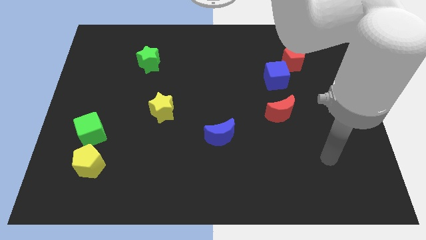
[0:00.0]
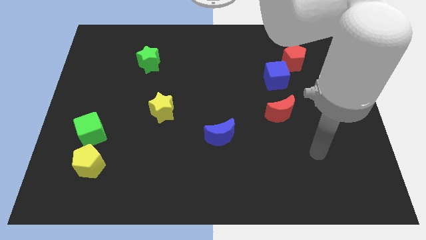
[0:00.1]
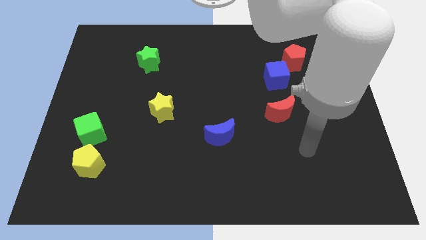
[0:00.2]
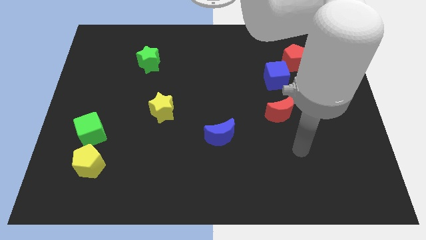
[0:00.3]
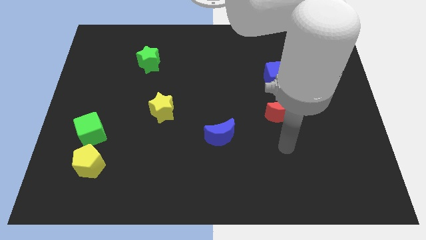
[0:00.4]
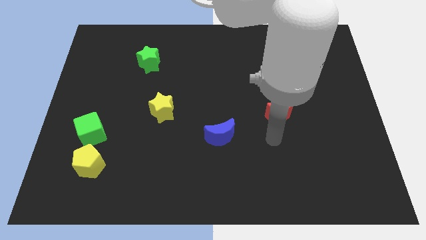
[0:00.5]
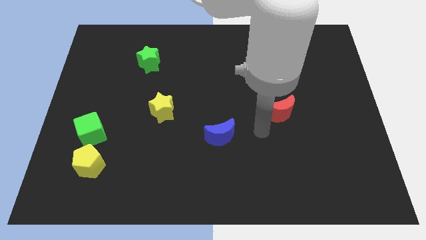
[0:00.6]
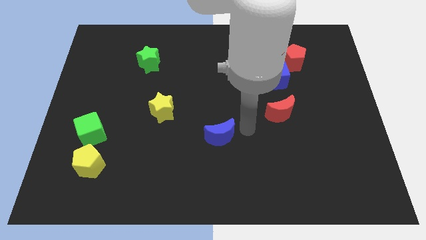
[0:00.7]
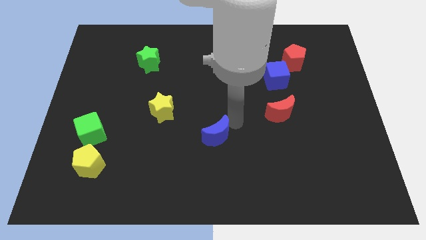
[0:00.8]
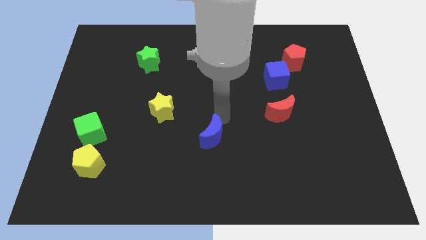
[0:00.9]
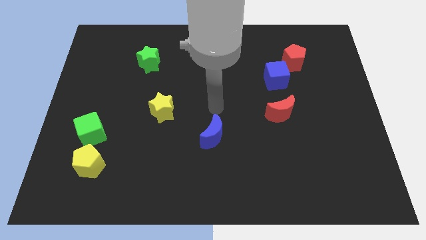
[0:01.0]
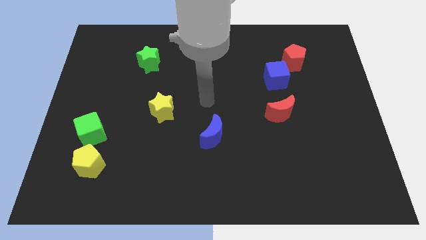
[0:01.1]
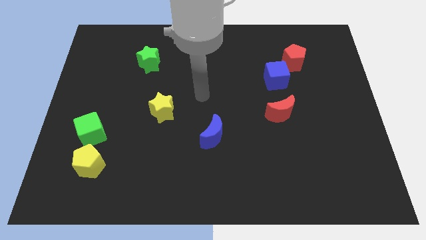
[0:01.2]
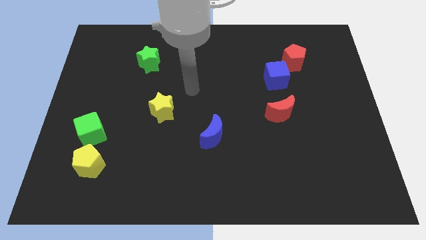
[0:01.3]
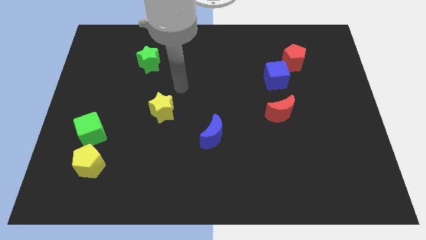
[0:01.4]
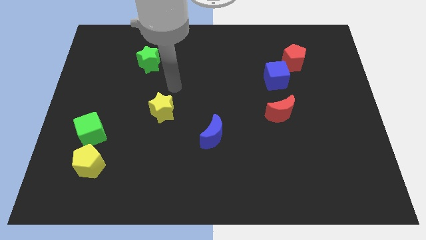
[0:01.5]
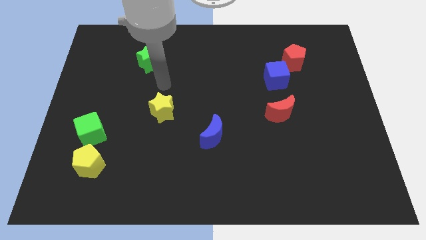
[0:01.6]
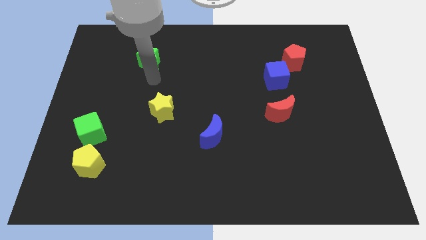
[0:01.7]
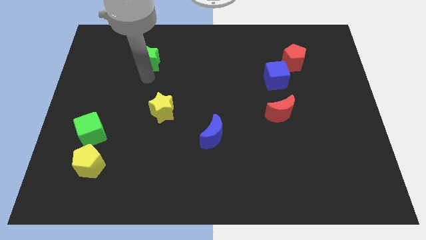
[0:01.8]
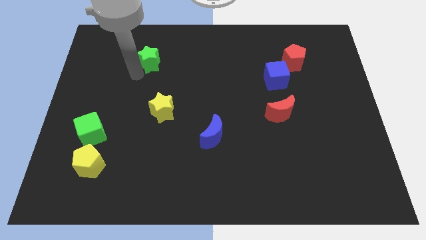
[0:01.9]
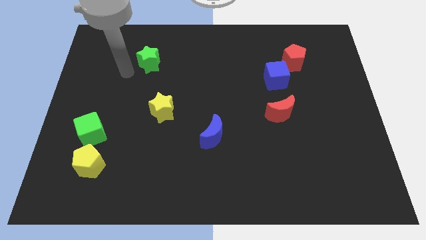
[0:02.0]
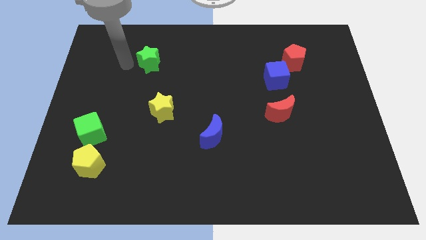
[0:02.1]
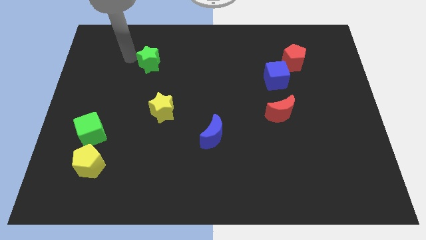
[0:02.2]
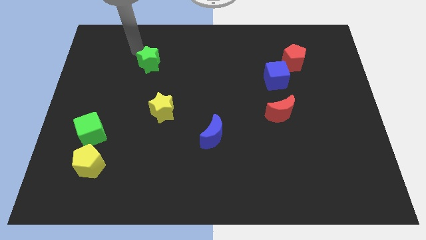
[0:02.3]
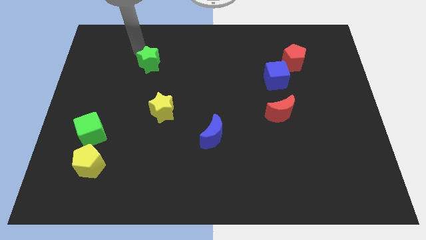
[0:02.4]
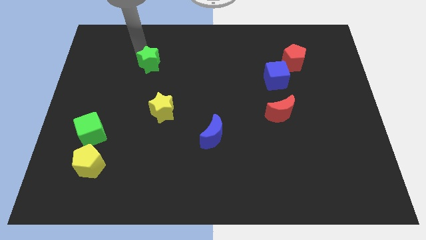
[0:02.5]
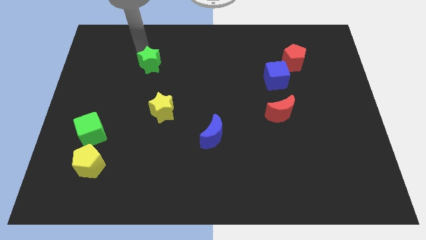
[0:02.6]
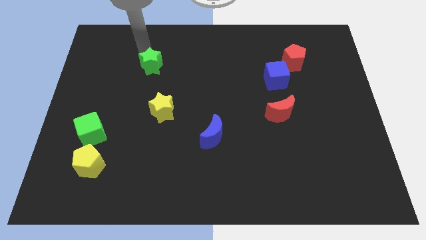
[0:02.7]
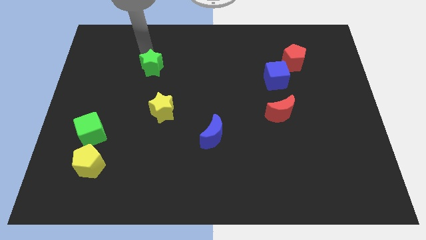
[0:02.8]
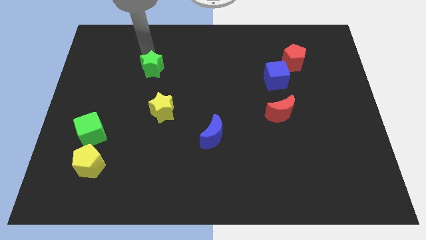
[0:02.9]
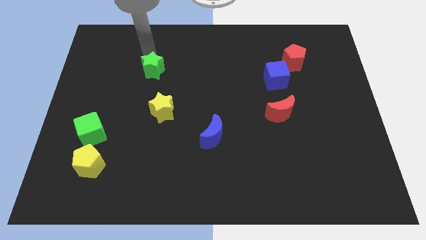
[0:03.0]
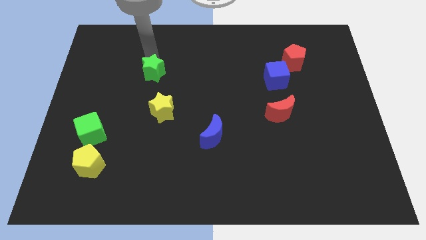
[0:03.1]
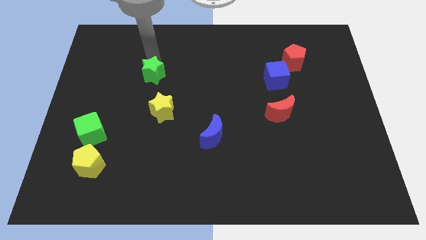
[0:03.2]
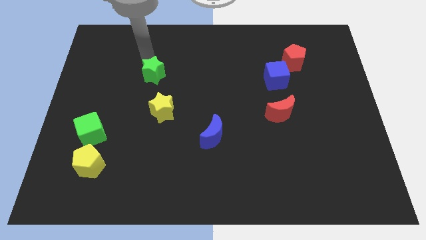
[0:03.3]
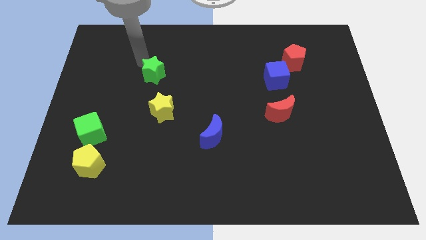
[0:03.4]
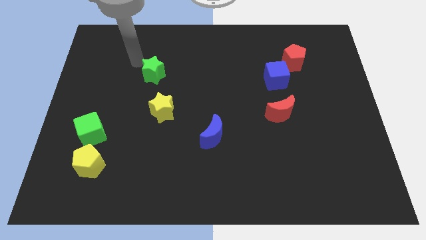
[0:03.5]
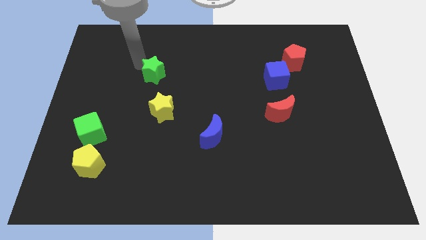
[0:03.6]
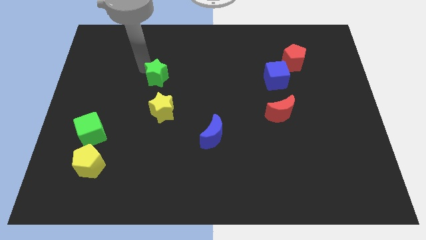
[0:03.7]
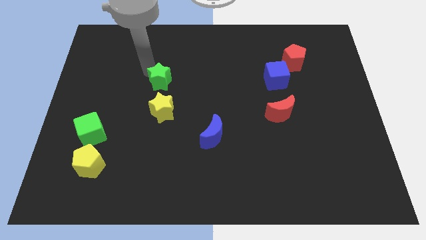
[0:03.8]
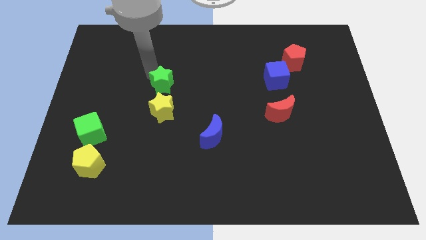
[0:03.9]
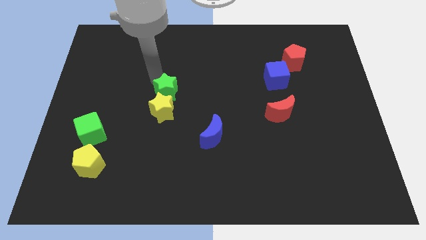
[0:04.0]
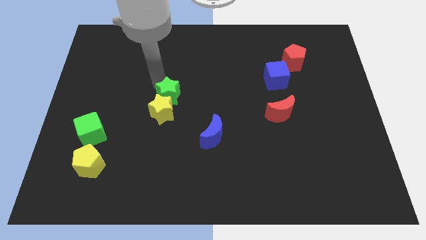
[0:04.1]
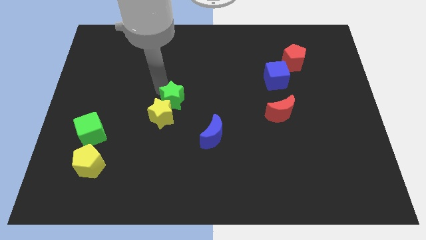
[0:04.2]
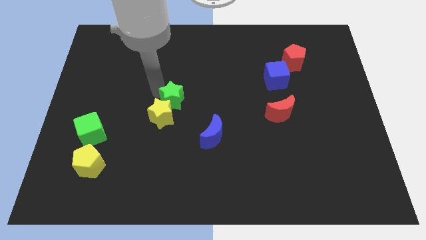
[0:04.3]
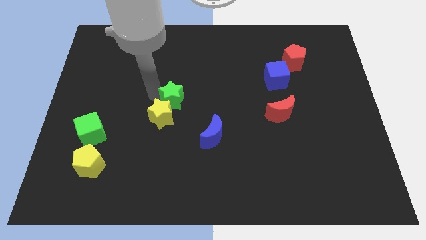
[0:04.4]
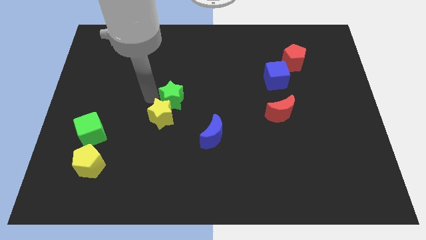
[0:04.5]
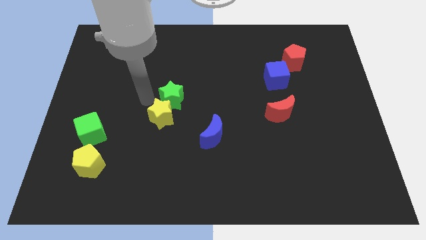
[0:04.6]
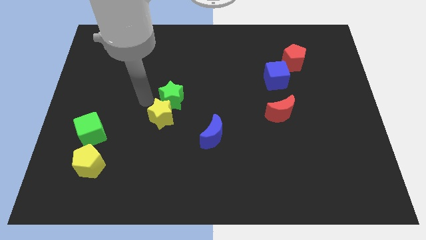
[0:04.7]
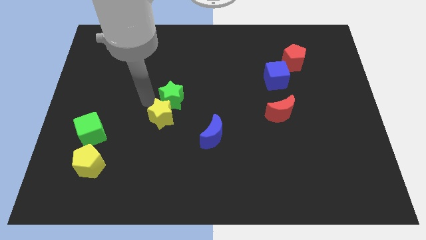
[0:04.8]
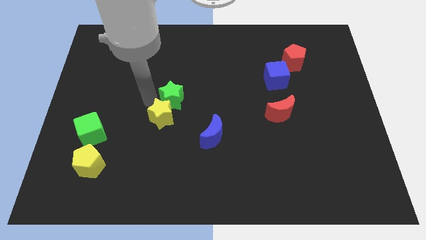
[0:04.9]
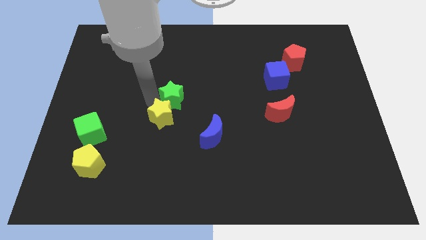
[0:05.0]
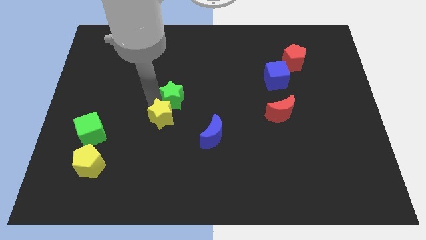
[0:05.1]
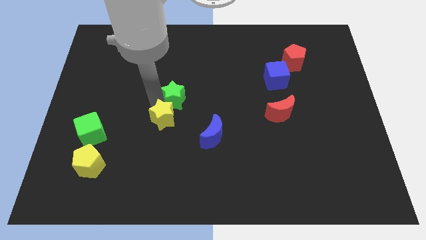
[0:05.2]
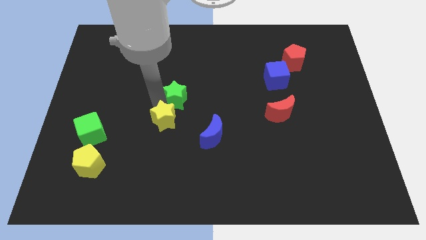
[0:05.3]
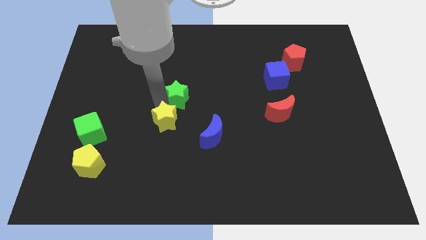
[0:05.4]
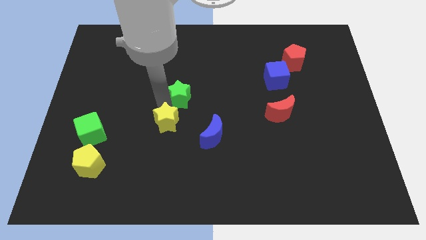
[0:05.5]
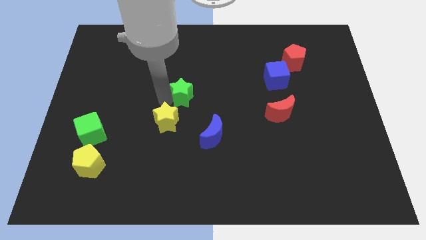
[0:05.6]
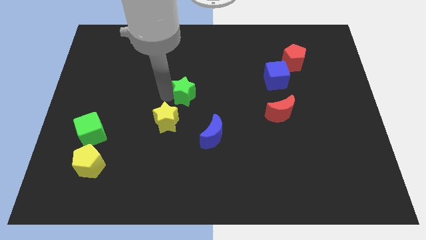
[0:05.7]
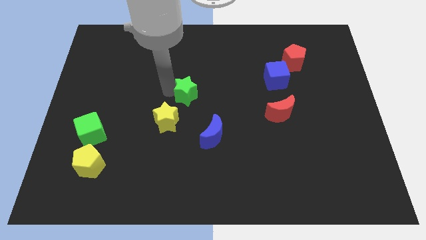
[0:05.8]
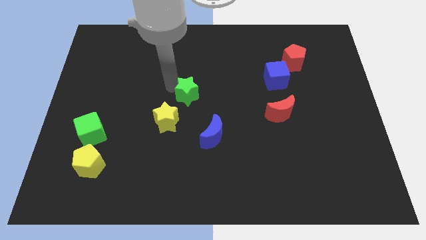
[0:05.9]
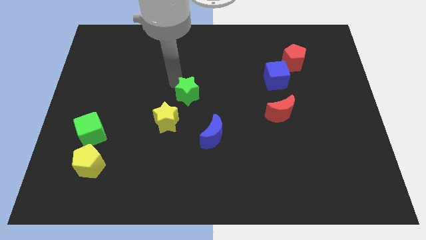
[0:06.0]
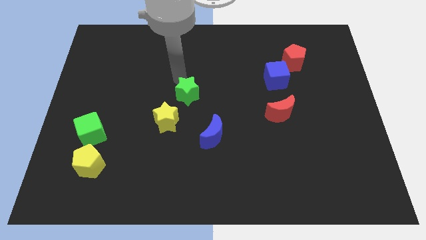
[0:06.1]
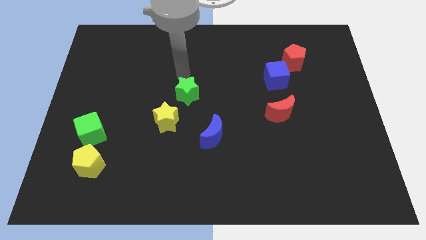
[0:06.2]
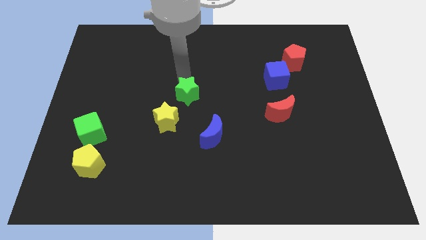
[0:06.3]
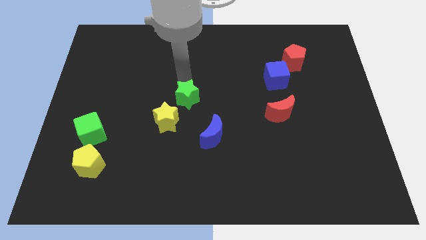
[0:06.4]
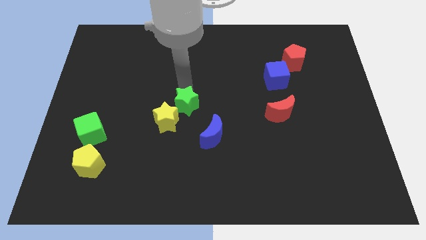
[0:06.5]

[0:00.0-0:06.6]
slide the green star to the top left side of the blue moon
